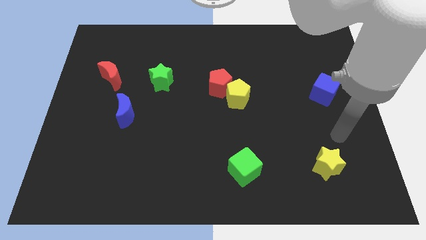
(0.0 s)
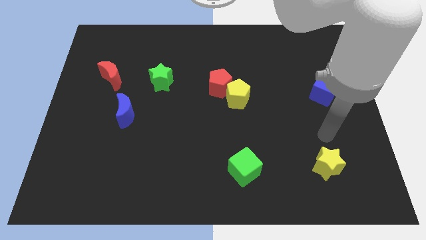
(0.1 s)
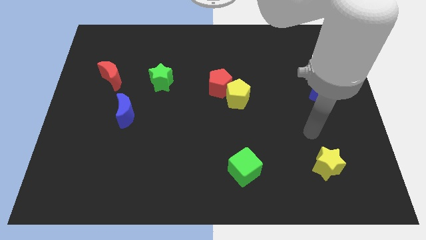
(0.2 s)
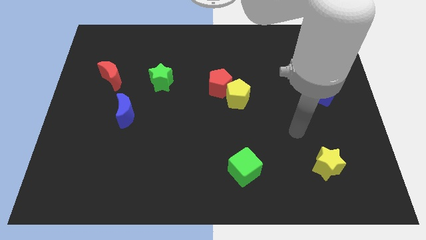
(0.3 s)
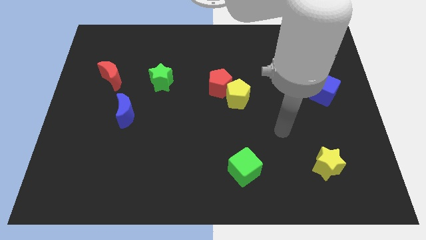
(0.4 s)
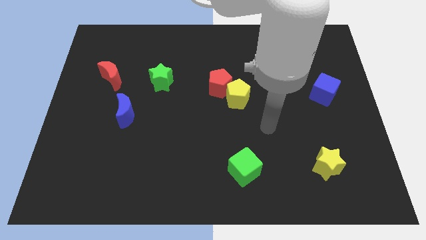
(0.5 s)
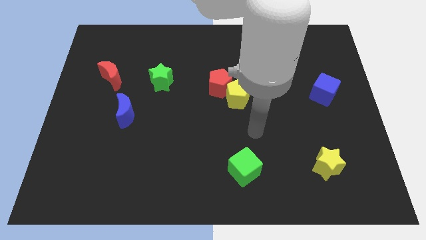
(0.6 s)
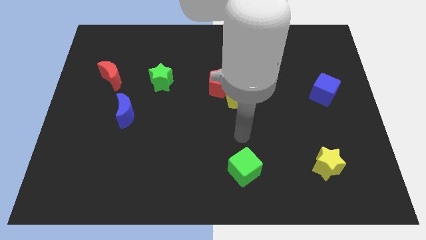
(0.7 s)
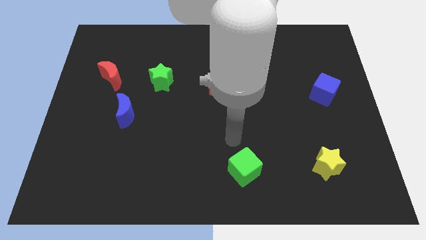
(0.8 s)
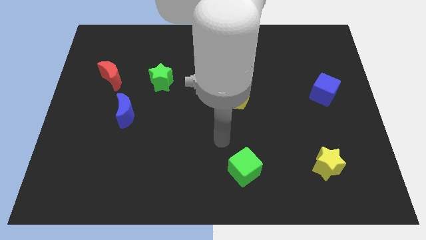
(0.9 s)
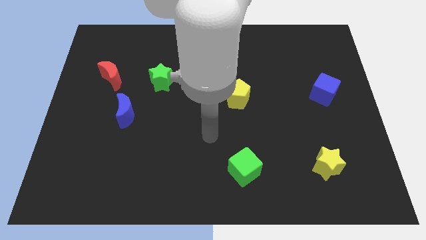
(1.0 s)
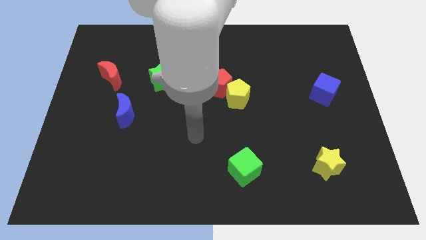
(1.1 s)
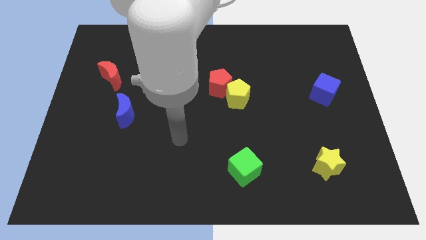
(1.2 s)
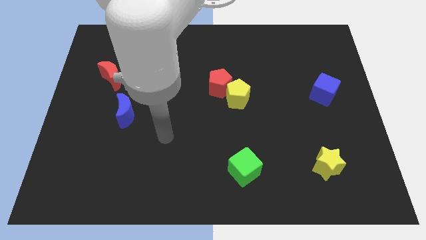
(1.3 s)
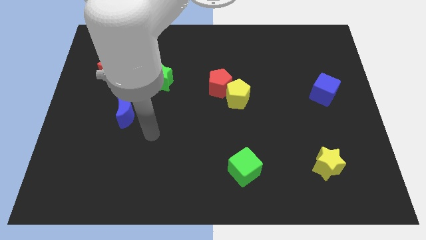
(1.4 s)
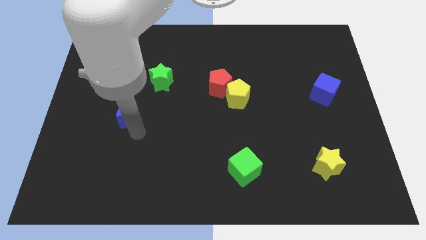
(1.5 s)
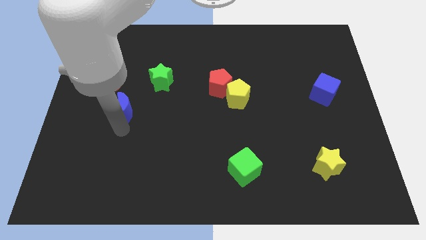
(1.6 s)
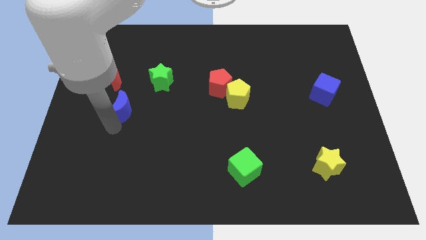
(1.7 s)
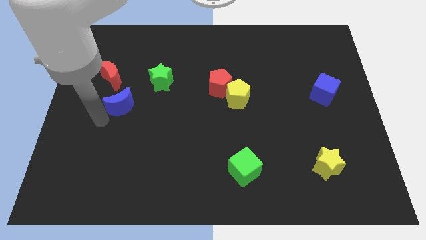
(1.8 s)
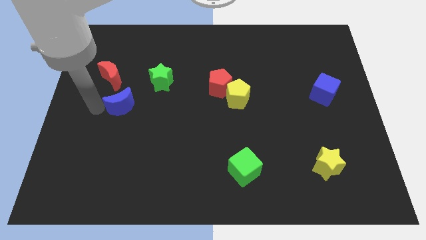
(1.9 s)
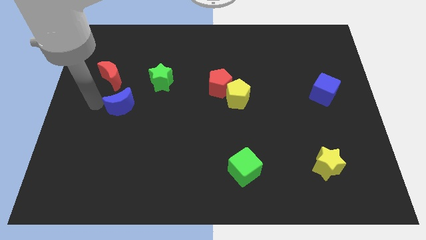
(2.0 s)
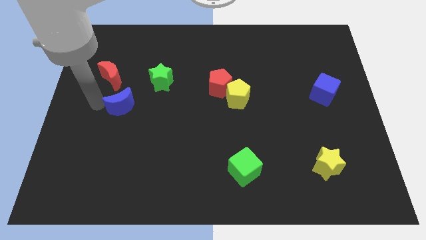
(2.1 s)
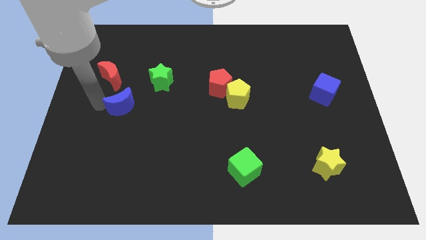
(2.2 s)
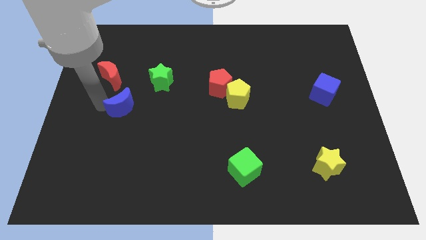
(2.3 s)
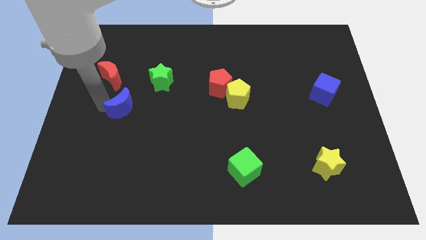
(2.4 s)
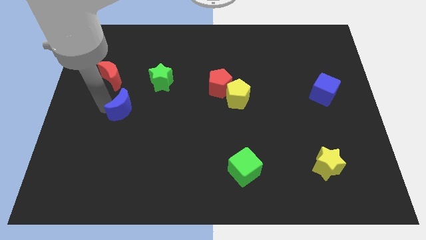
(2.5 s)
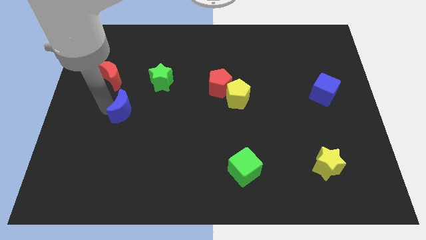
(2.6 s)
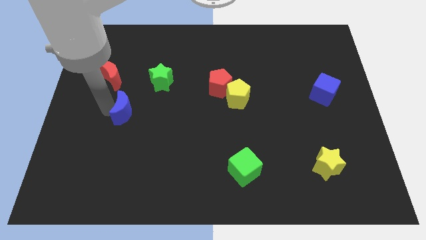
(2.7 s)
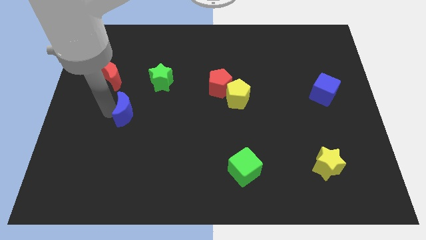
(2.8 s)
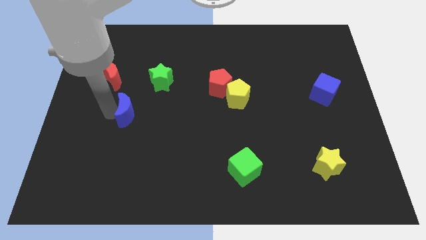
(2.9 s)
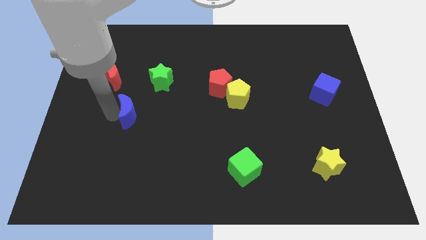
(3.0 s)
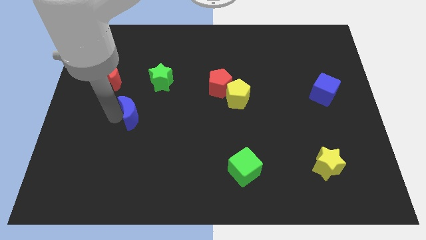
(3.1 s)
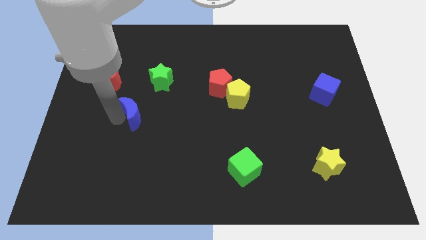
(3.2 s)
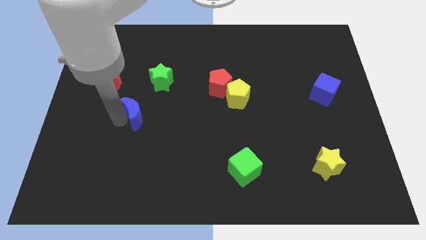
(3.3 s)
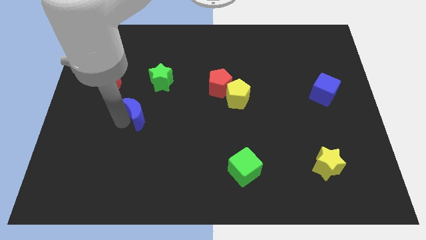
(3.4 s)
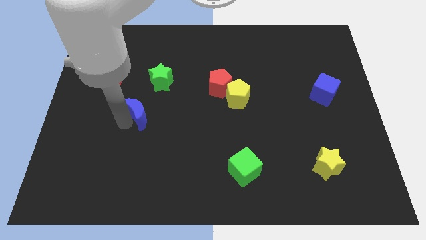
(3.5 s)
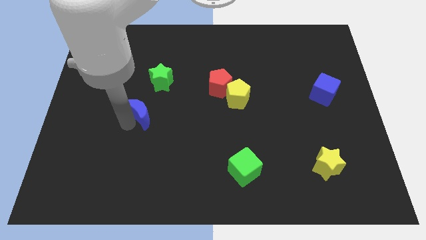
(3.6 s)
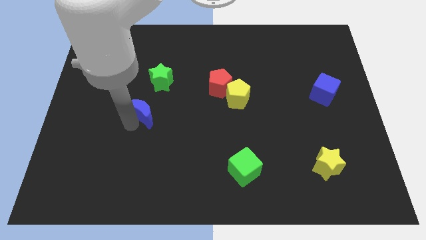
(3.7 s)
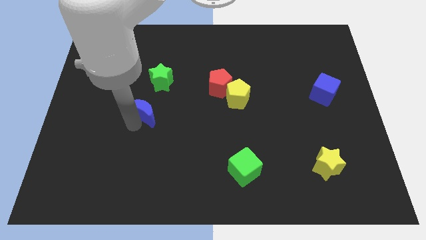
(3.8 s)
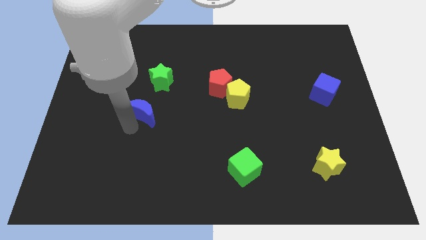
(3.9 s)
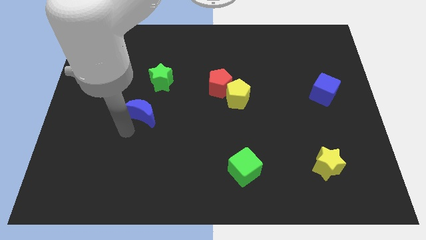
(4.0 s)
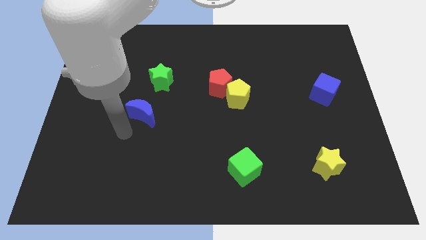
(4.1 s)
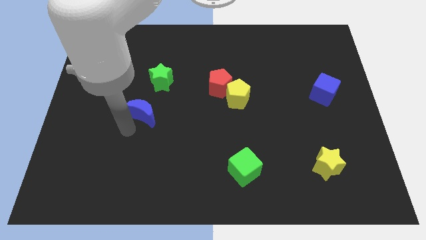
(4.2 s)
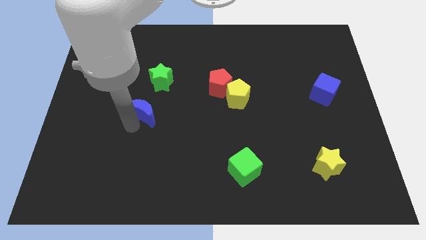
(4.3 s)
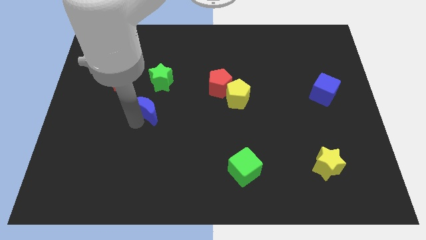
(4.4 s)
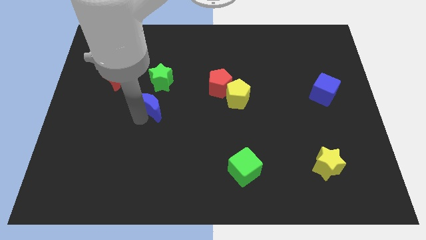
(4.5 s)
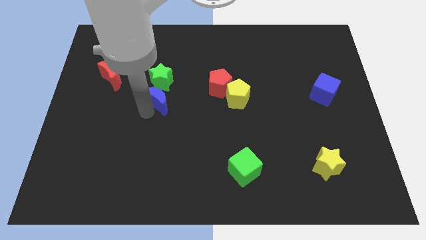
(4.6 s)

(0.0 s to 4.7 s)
slightly move the blue moon up and then to the right

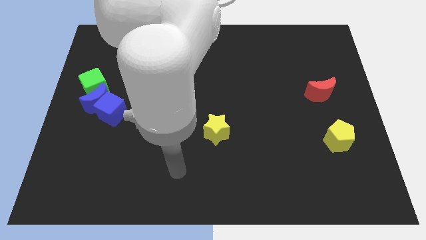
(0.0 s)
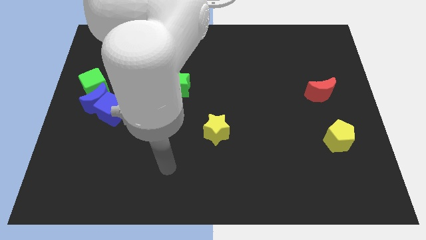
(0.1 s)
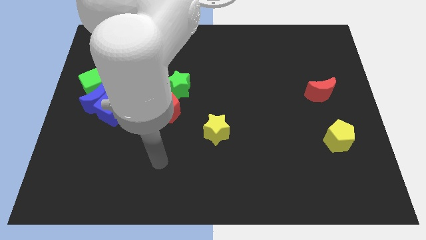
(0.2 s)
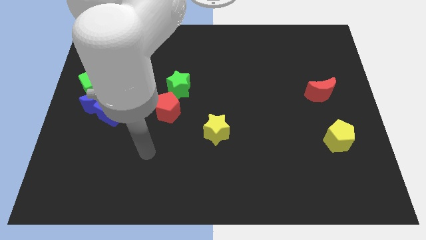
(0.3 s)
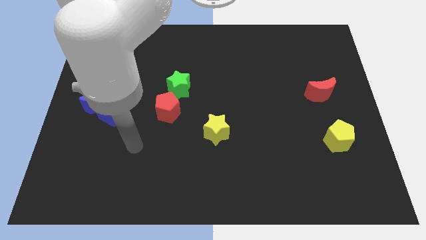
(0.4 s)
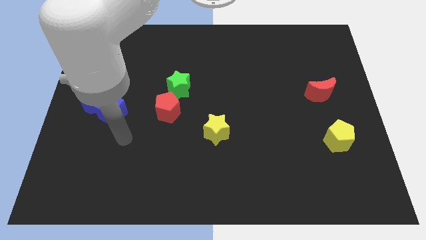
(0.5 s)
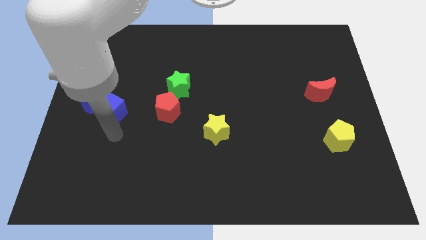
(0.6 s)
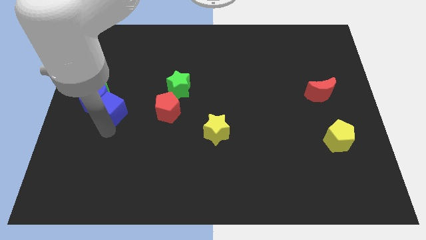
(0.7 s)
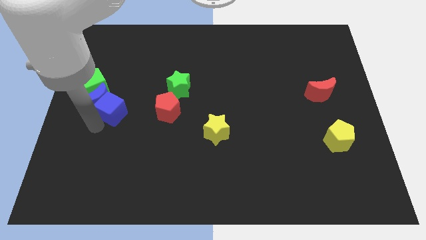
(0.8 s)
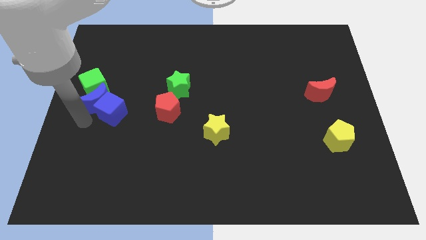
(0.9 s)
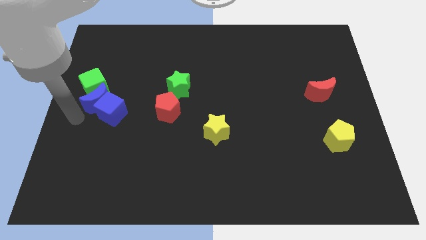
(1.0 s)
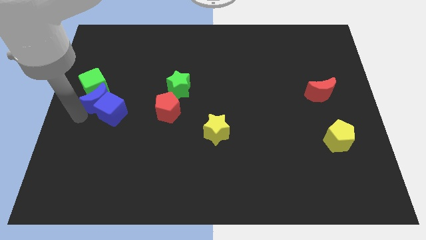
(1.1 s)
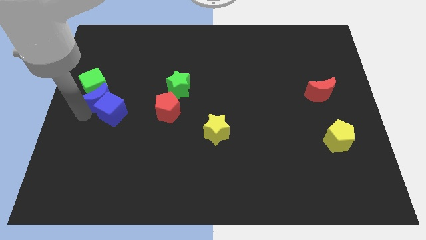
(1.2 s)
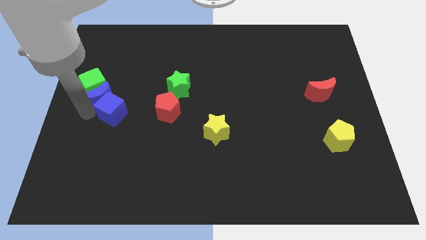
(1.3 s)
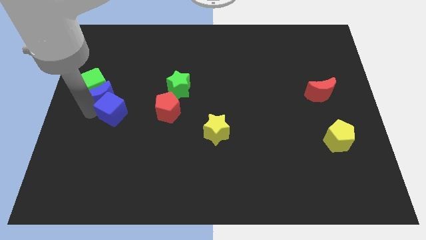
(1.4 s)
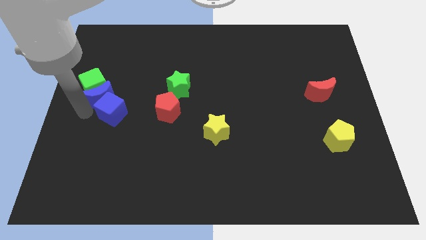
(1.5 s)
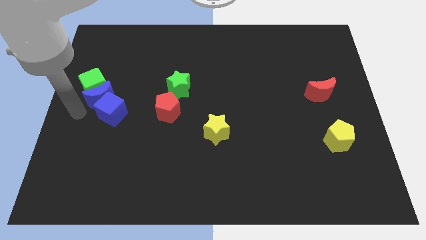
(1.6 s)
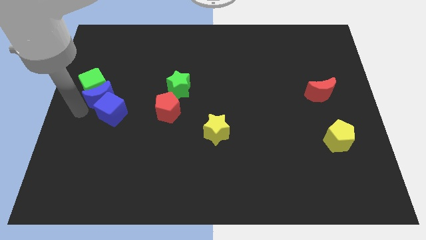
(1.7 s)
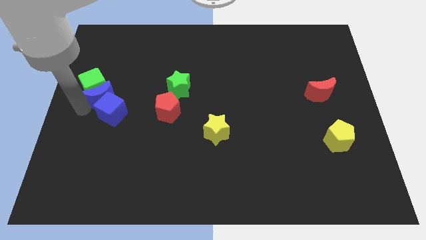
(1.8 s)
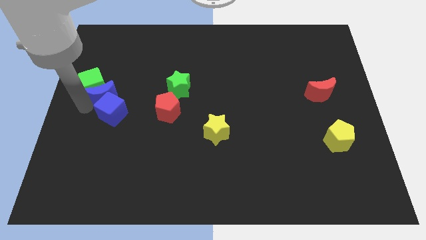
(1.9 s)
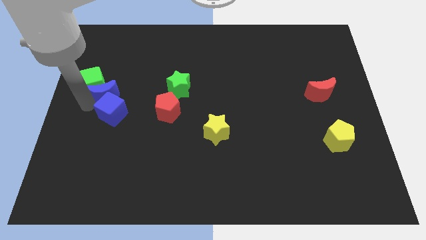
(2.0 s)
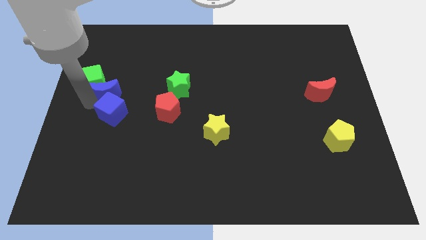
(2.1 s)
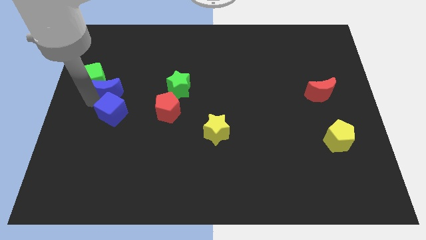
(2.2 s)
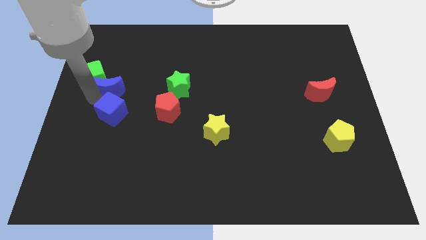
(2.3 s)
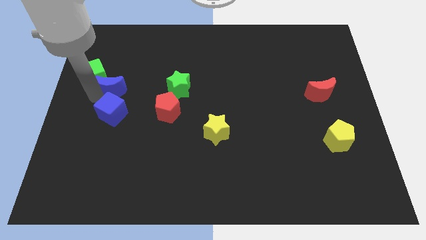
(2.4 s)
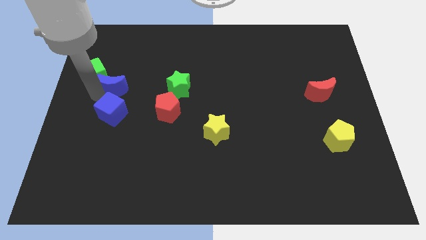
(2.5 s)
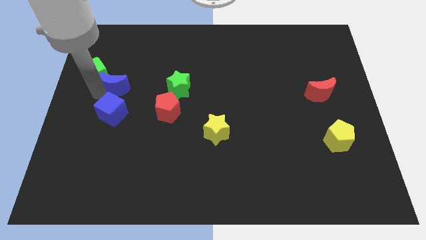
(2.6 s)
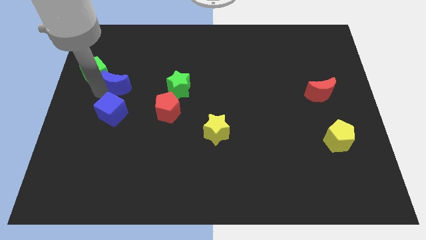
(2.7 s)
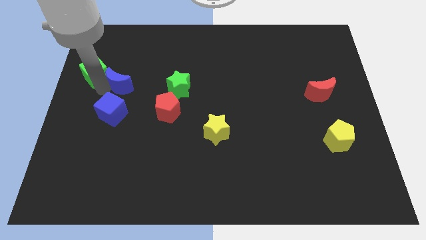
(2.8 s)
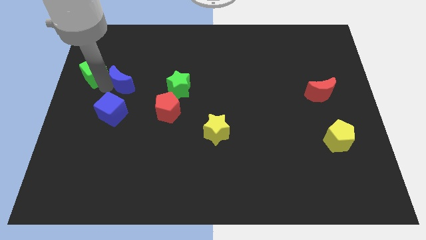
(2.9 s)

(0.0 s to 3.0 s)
slightly slide the blue moon diagonally up and right

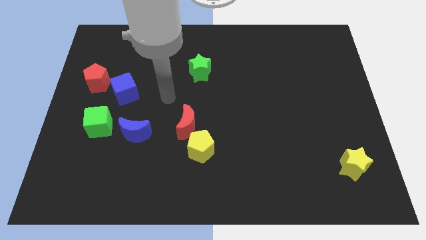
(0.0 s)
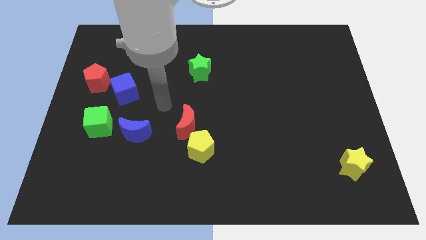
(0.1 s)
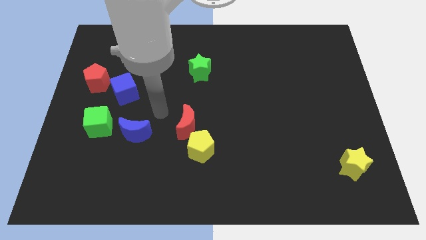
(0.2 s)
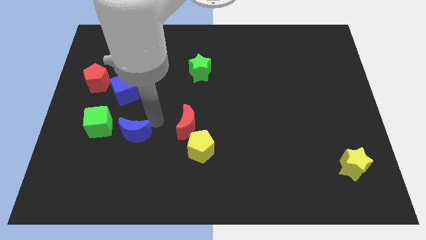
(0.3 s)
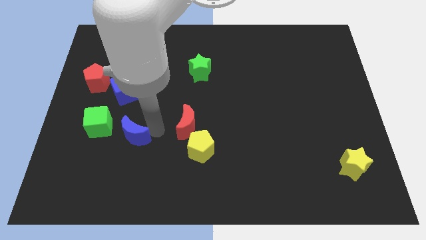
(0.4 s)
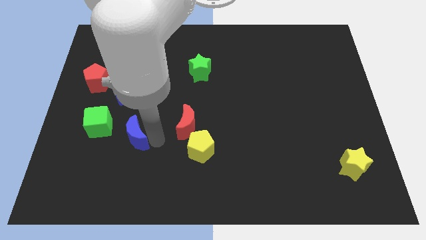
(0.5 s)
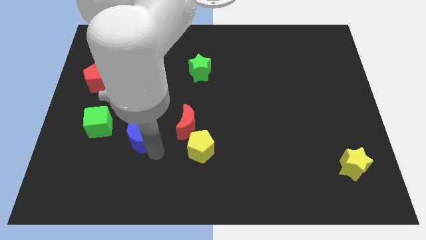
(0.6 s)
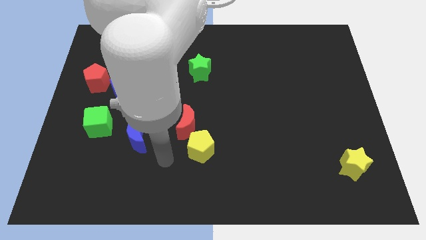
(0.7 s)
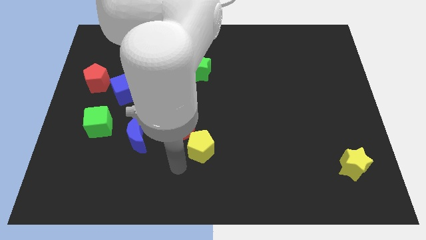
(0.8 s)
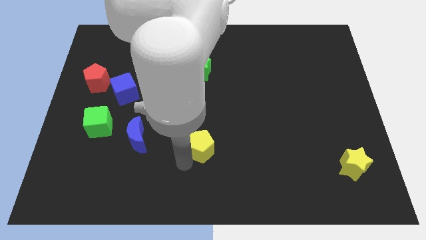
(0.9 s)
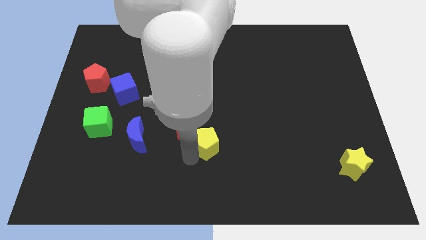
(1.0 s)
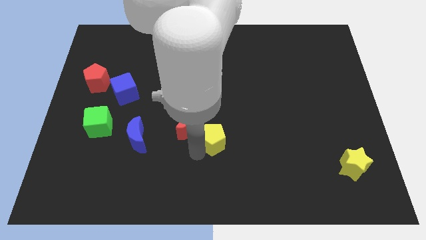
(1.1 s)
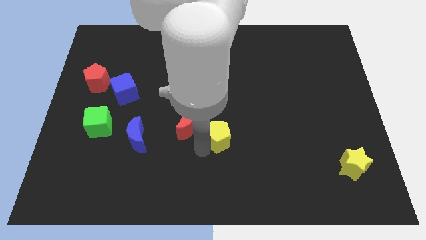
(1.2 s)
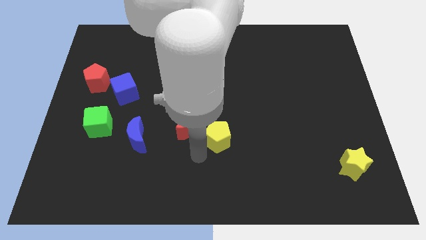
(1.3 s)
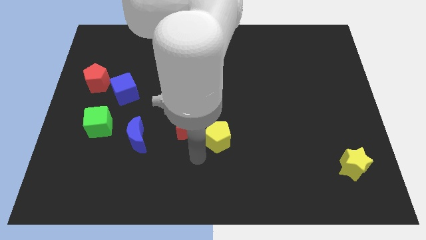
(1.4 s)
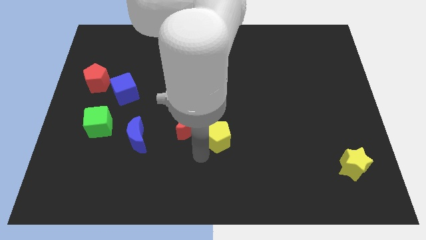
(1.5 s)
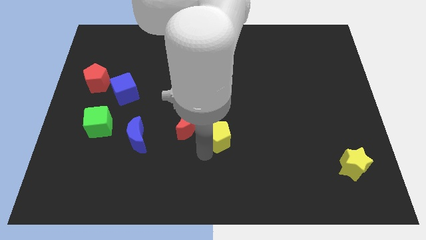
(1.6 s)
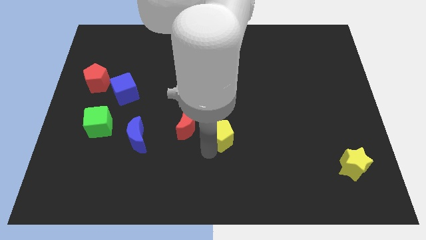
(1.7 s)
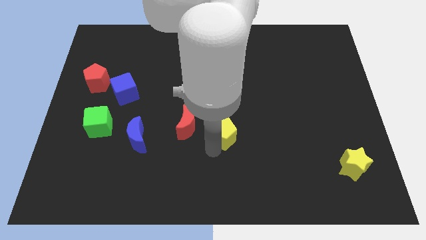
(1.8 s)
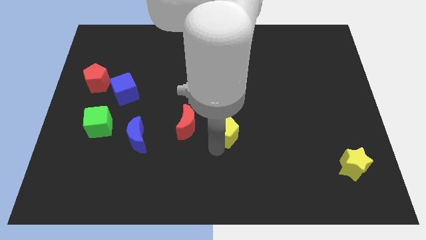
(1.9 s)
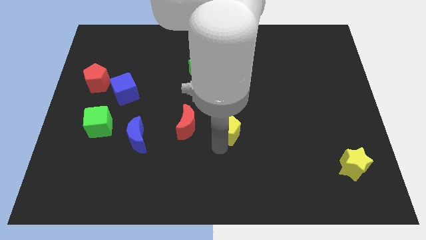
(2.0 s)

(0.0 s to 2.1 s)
slide the yellow pentagon slightly diagonally up and to the right
